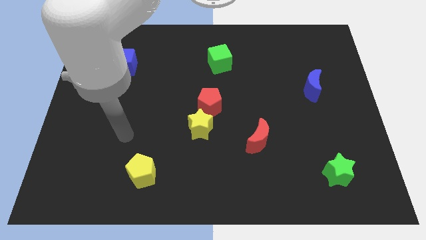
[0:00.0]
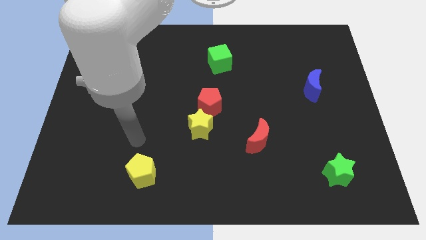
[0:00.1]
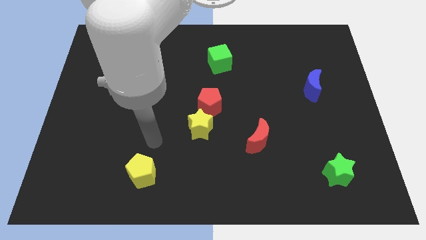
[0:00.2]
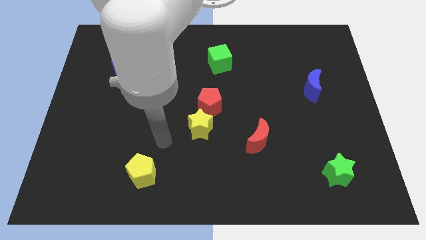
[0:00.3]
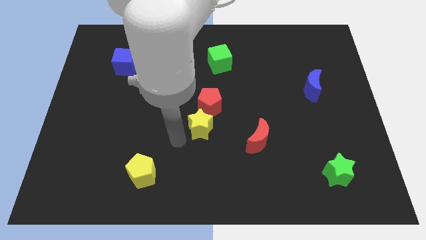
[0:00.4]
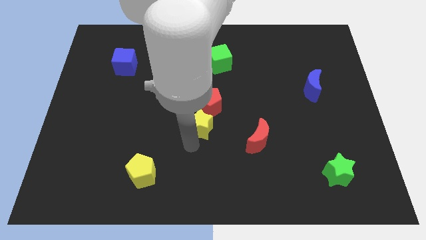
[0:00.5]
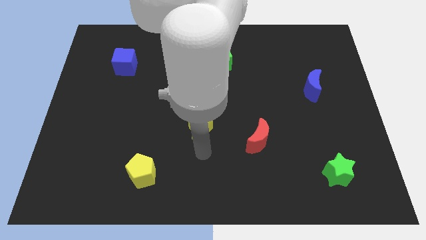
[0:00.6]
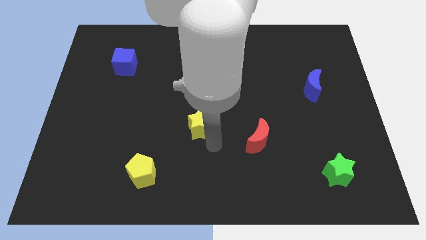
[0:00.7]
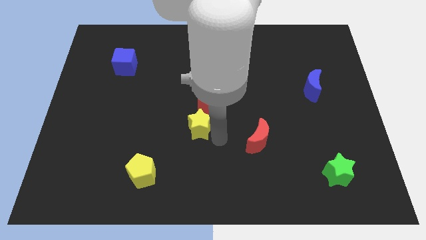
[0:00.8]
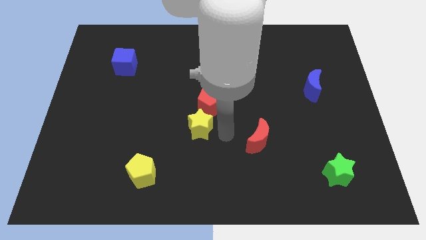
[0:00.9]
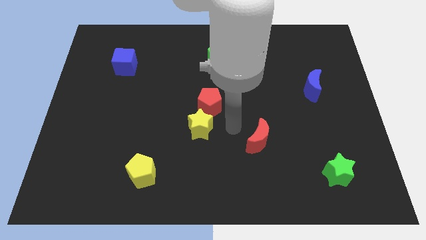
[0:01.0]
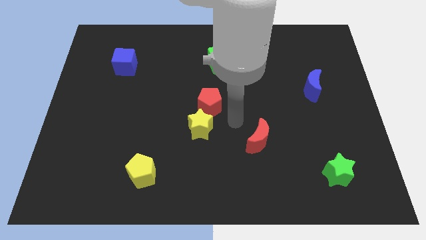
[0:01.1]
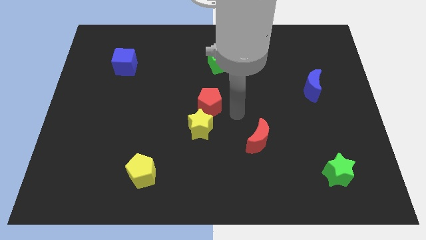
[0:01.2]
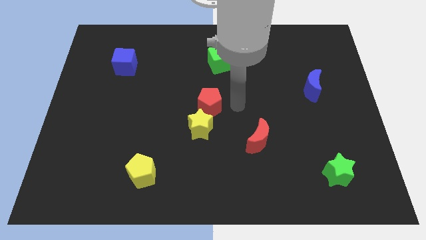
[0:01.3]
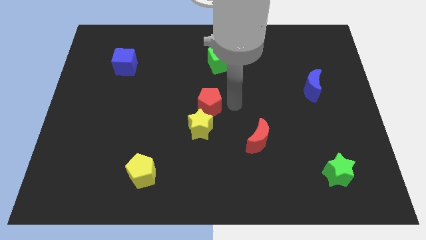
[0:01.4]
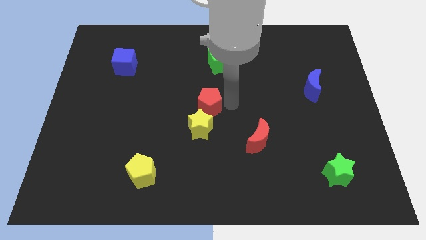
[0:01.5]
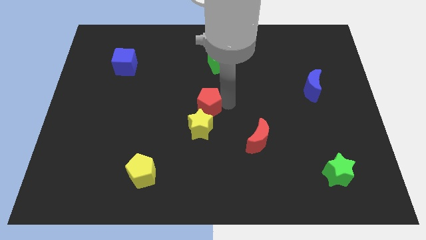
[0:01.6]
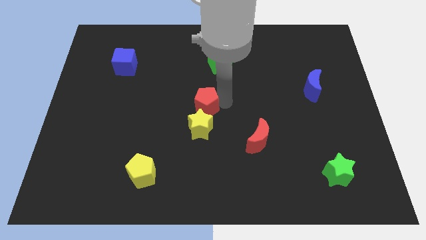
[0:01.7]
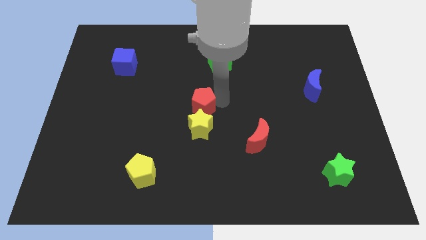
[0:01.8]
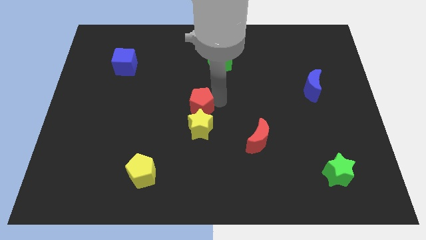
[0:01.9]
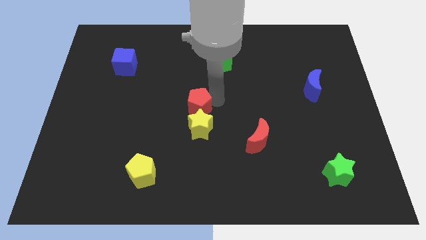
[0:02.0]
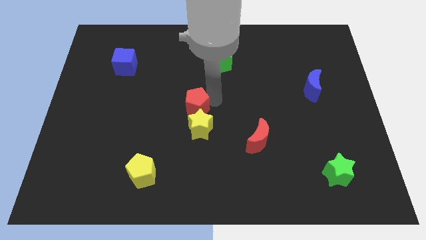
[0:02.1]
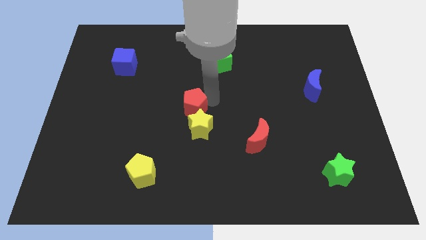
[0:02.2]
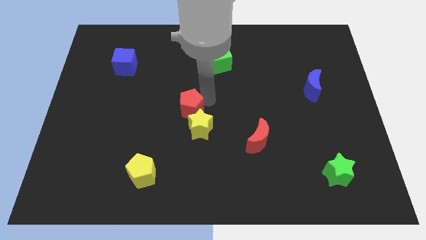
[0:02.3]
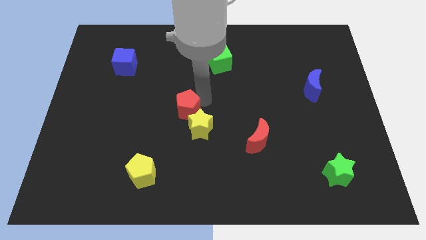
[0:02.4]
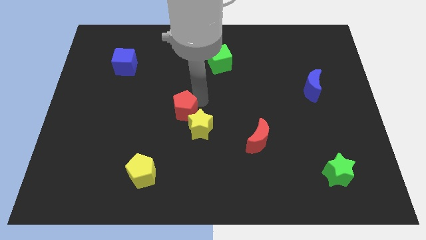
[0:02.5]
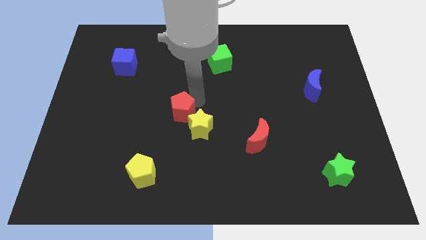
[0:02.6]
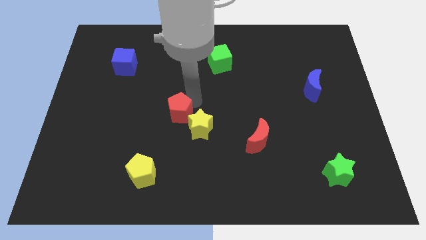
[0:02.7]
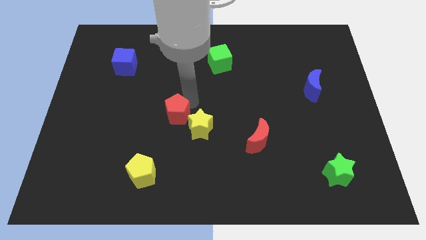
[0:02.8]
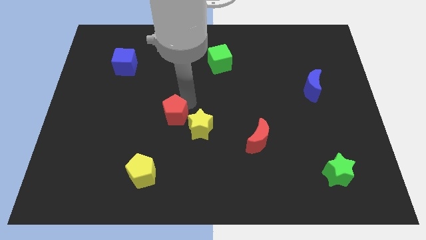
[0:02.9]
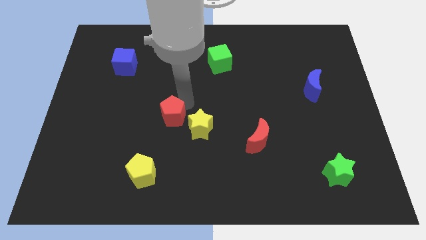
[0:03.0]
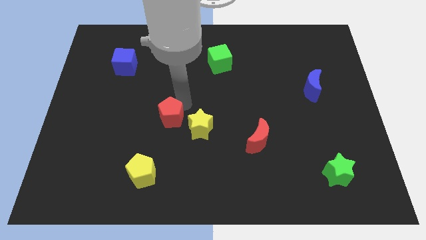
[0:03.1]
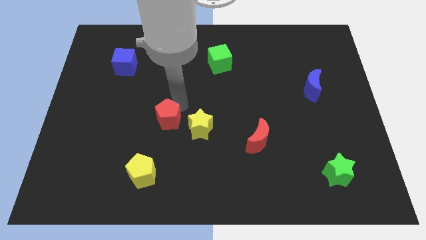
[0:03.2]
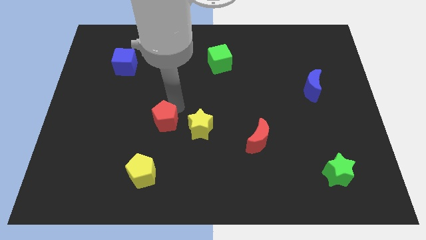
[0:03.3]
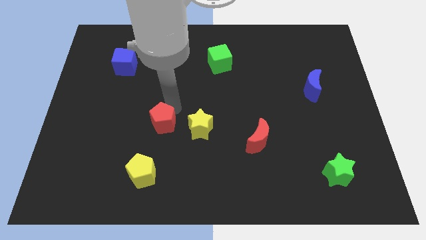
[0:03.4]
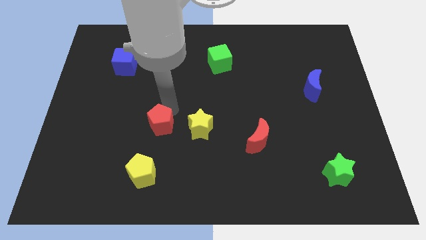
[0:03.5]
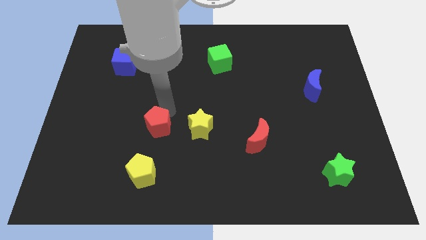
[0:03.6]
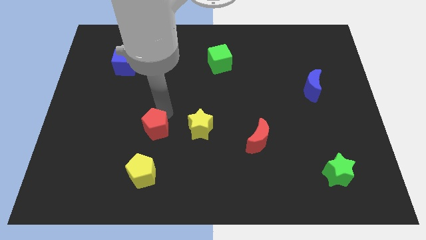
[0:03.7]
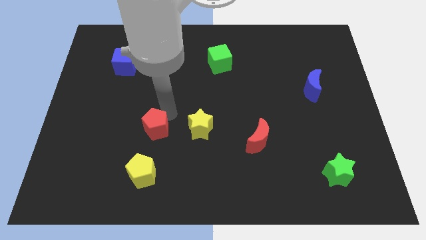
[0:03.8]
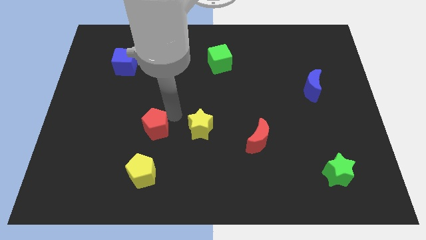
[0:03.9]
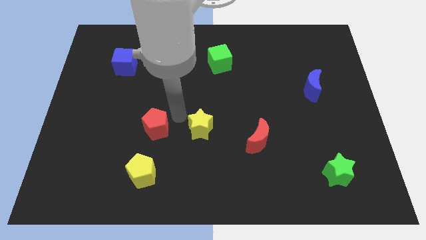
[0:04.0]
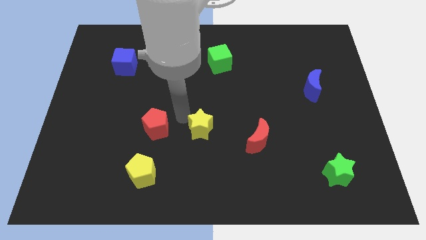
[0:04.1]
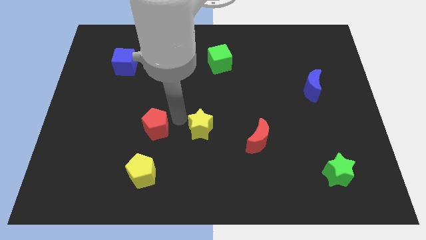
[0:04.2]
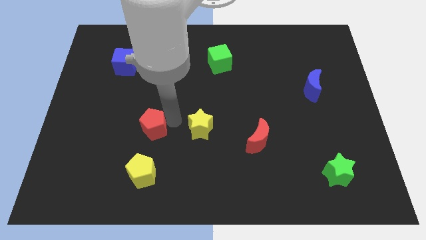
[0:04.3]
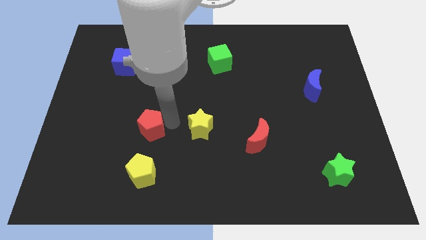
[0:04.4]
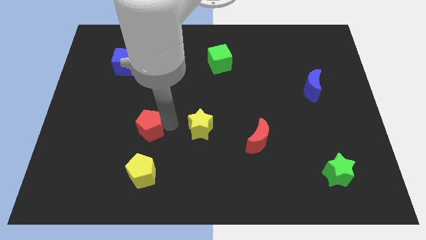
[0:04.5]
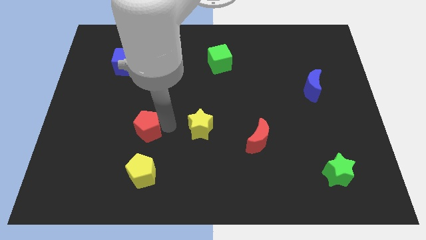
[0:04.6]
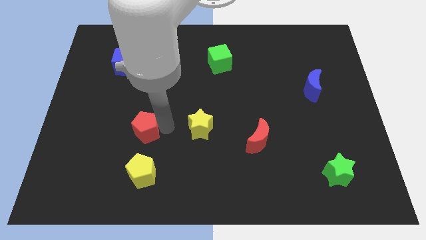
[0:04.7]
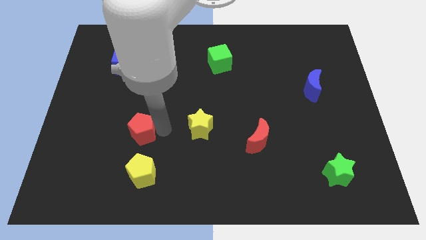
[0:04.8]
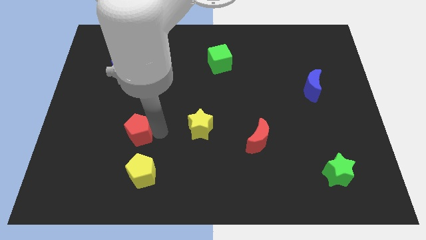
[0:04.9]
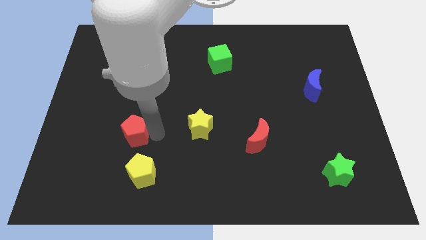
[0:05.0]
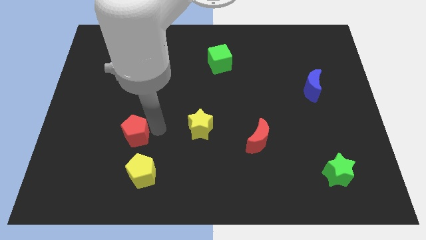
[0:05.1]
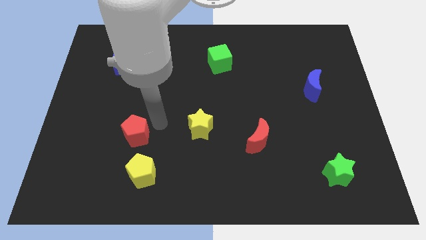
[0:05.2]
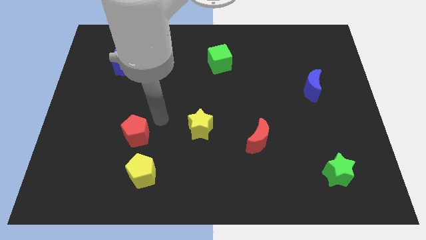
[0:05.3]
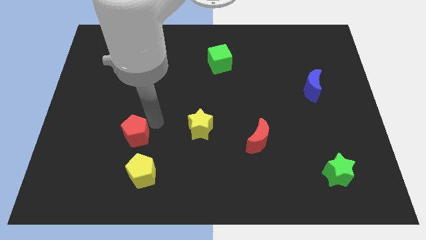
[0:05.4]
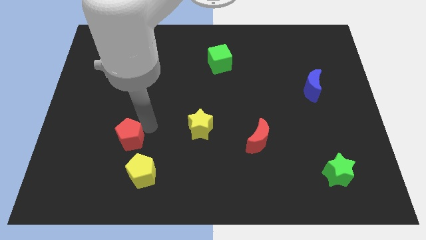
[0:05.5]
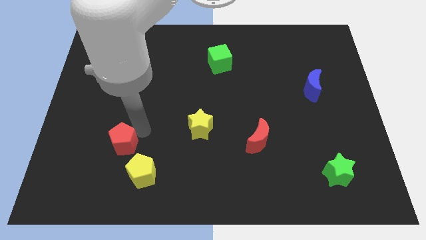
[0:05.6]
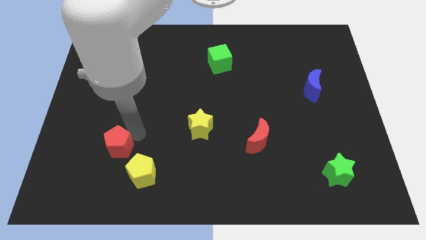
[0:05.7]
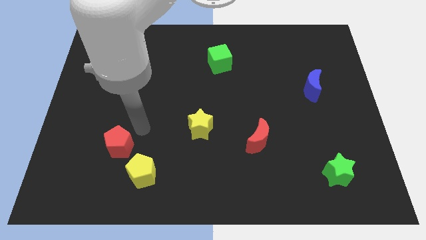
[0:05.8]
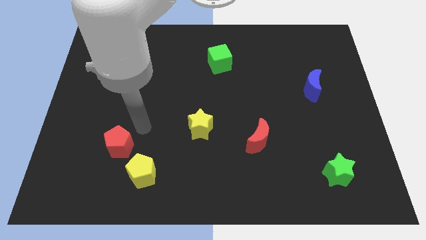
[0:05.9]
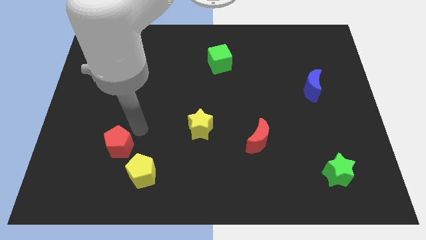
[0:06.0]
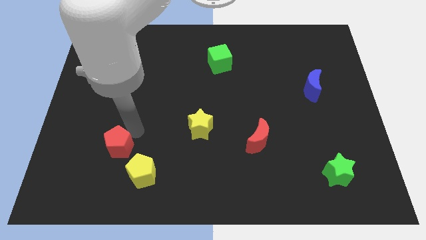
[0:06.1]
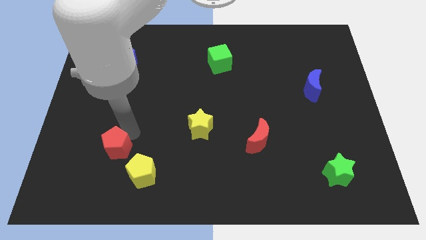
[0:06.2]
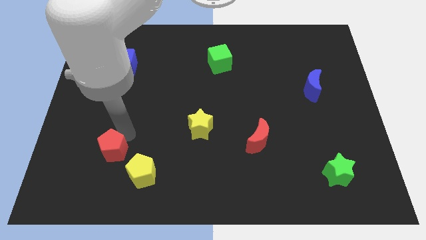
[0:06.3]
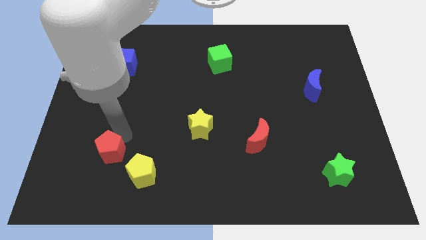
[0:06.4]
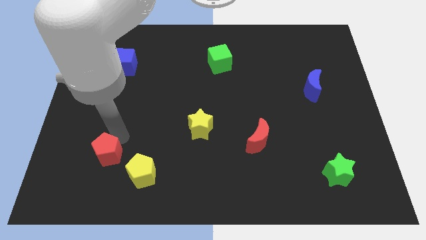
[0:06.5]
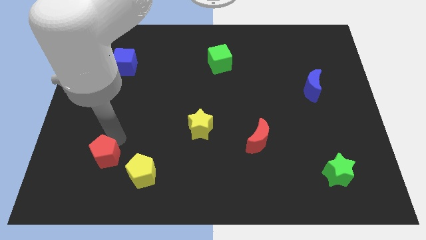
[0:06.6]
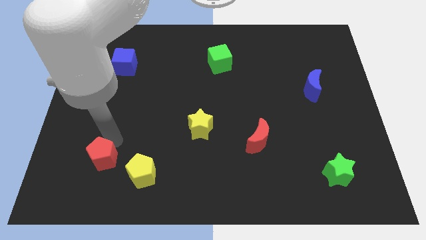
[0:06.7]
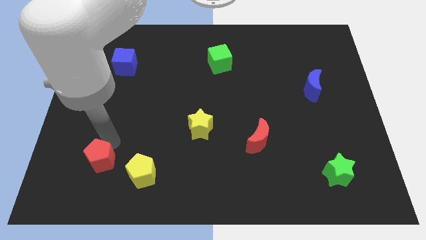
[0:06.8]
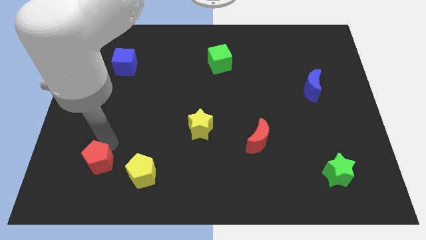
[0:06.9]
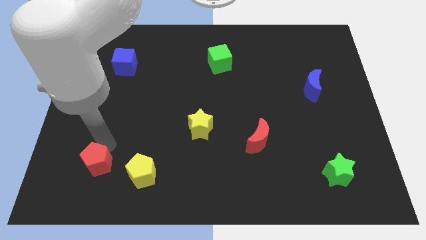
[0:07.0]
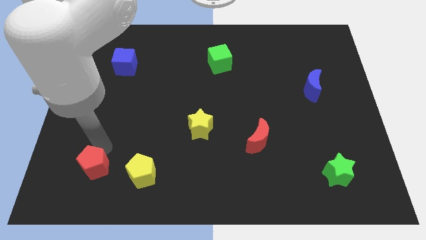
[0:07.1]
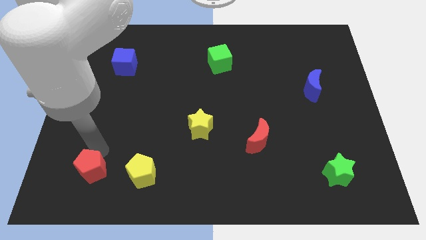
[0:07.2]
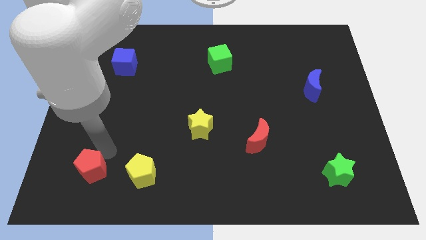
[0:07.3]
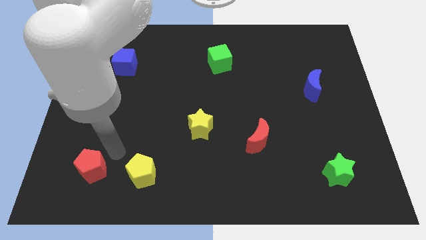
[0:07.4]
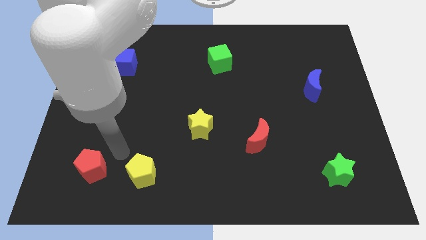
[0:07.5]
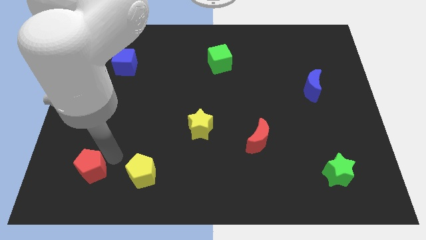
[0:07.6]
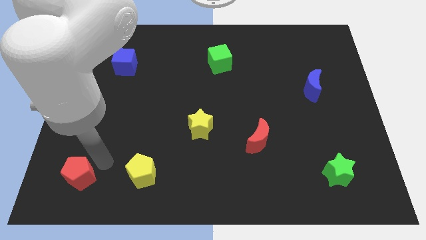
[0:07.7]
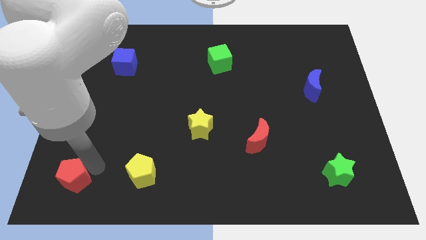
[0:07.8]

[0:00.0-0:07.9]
slide the red pentagon to the bottom left
